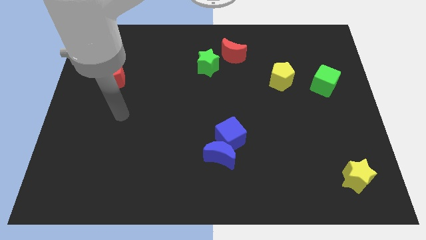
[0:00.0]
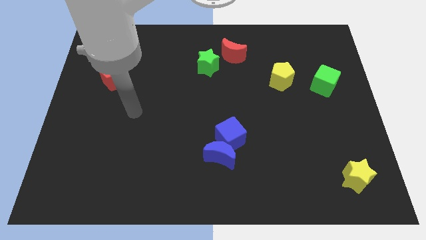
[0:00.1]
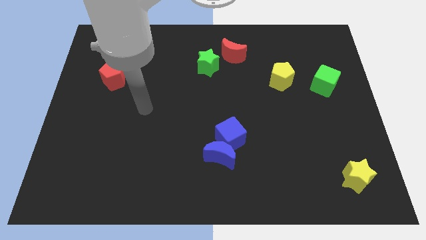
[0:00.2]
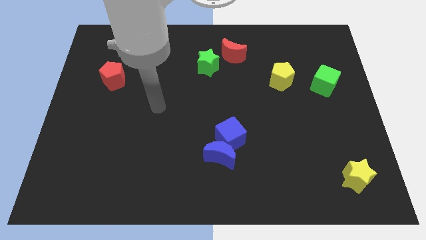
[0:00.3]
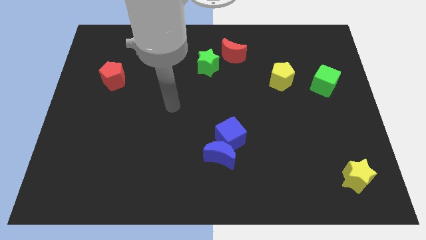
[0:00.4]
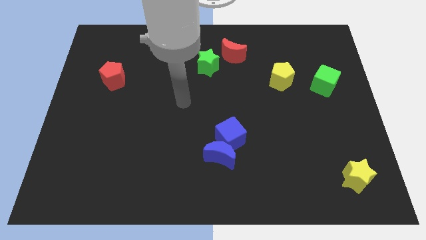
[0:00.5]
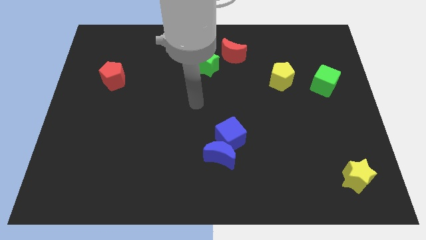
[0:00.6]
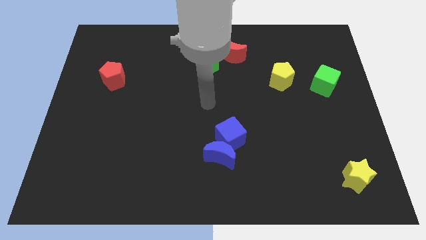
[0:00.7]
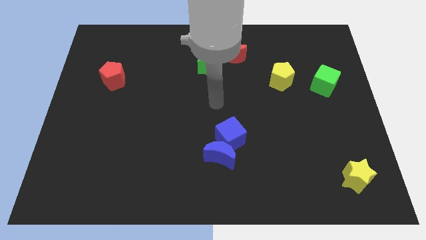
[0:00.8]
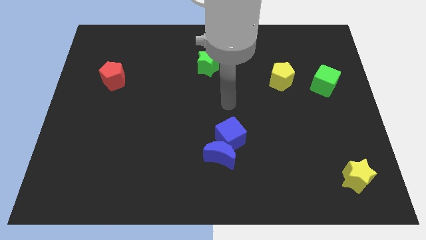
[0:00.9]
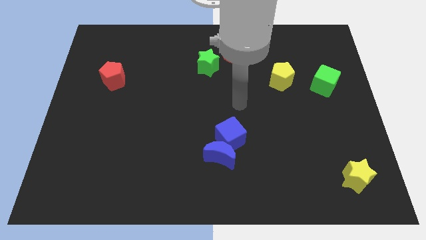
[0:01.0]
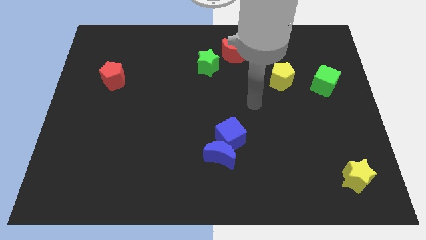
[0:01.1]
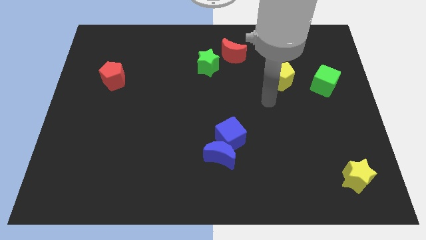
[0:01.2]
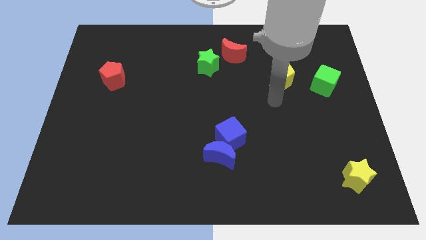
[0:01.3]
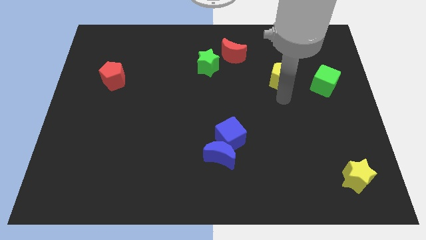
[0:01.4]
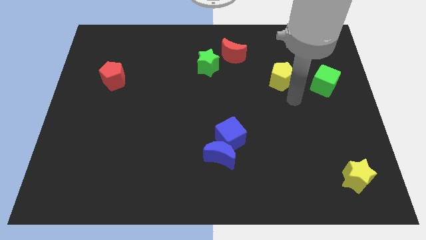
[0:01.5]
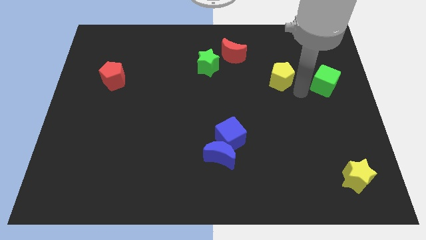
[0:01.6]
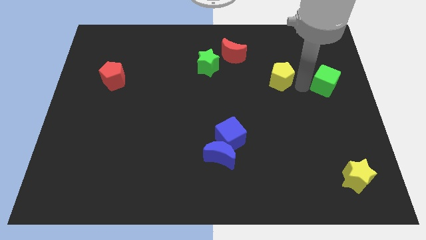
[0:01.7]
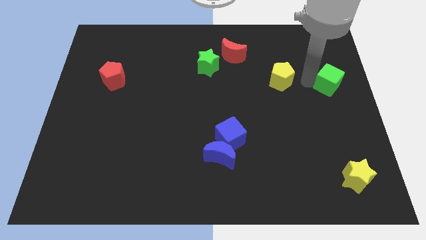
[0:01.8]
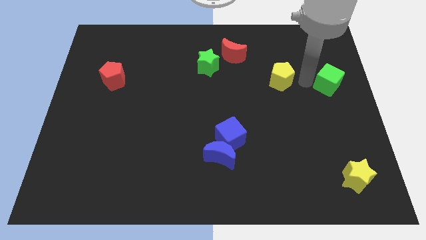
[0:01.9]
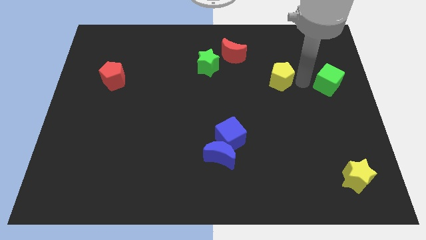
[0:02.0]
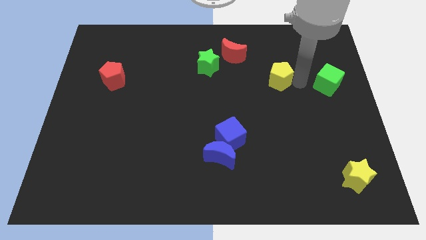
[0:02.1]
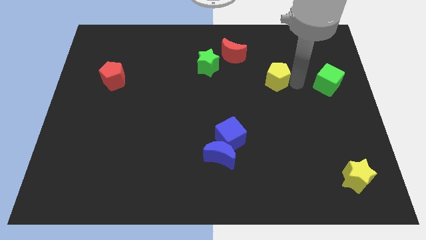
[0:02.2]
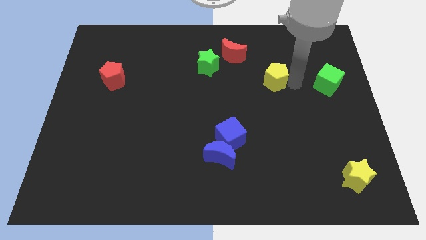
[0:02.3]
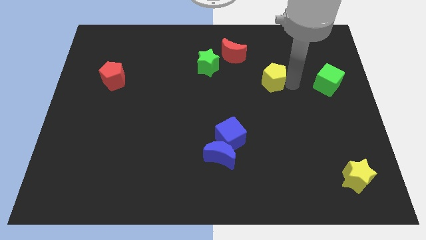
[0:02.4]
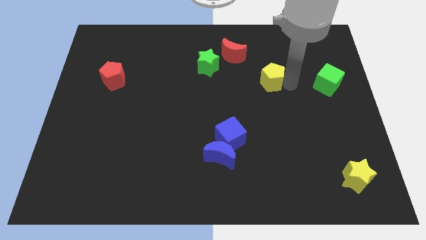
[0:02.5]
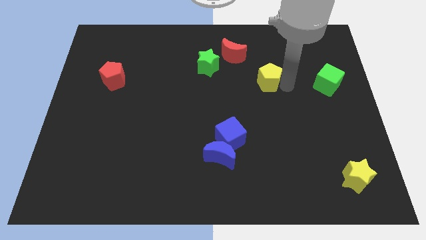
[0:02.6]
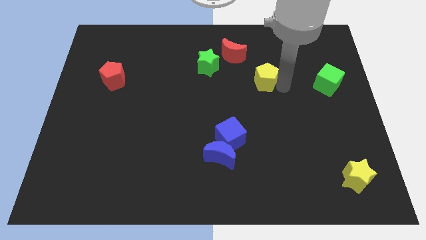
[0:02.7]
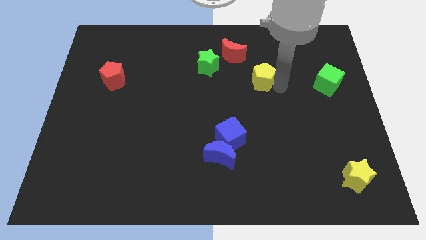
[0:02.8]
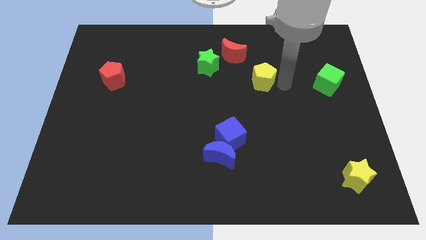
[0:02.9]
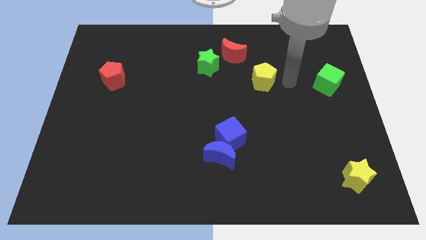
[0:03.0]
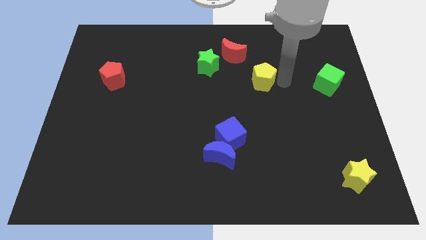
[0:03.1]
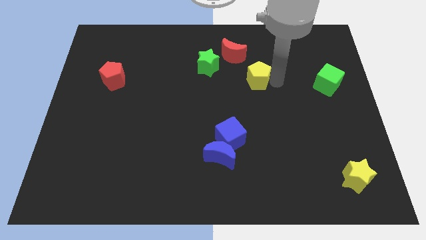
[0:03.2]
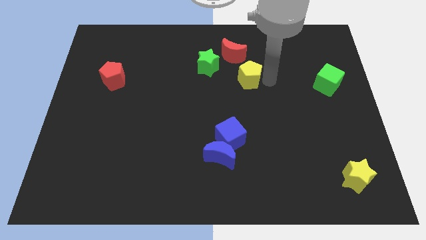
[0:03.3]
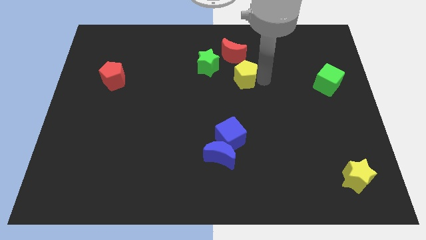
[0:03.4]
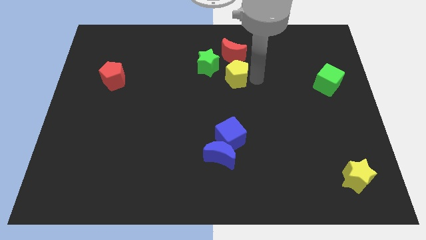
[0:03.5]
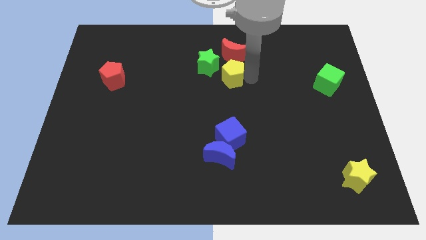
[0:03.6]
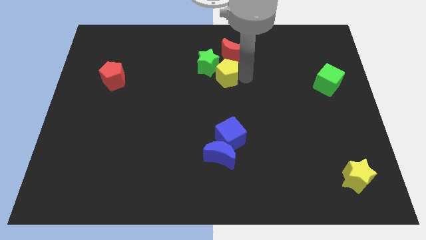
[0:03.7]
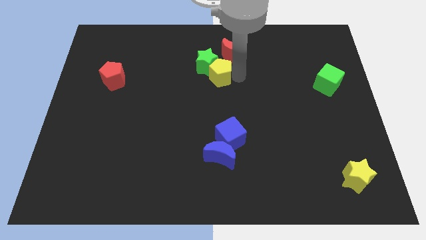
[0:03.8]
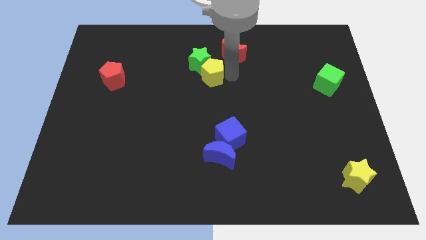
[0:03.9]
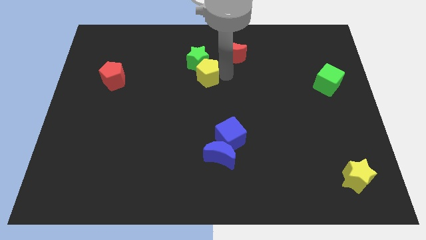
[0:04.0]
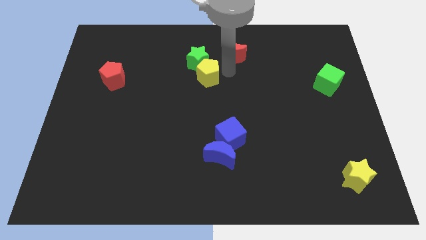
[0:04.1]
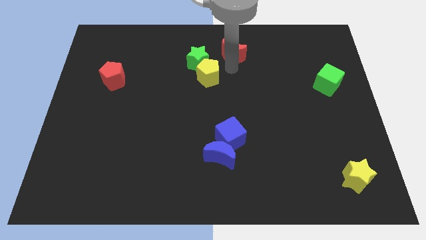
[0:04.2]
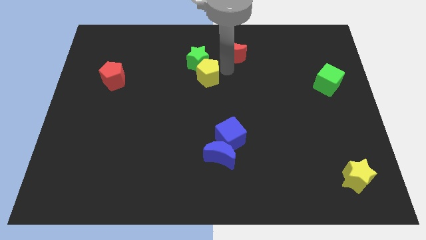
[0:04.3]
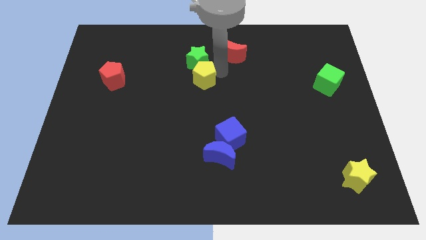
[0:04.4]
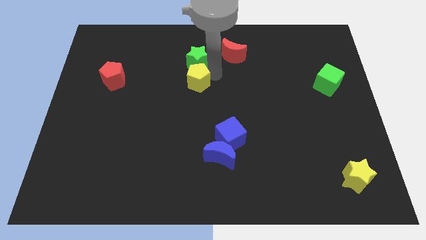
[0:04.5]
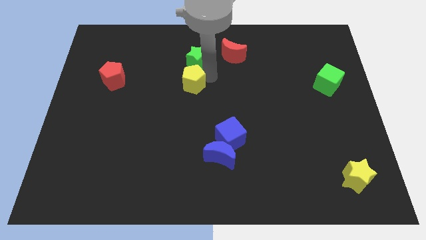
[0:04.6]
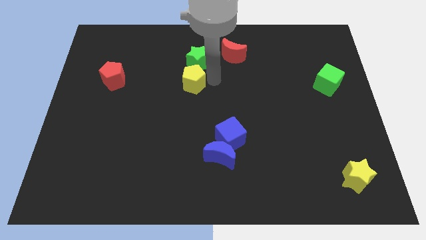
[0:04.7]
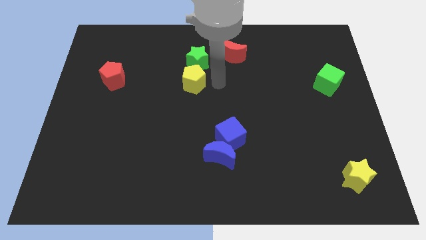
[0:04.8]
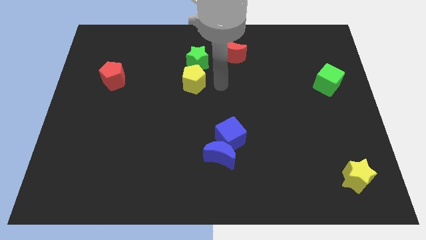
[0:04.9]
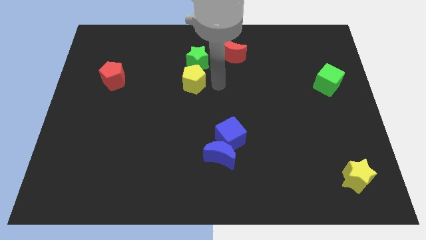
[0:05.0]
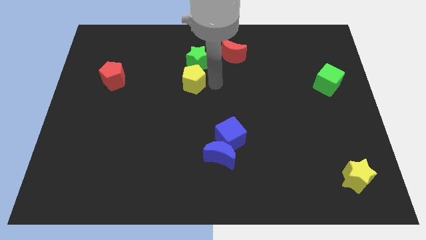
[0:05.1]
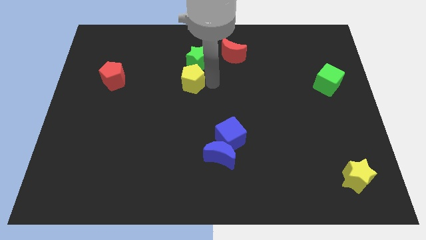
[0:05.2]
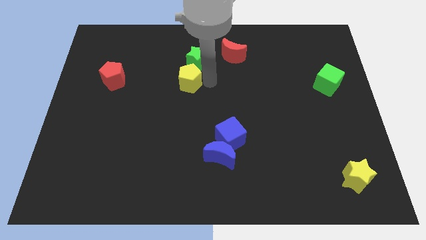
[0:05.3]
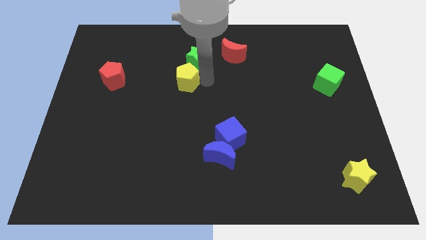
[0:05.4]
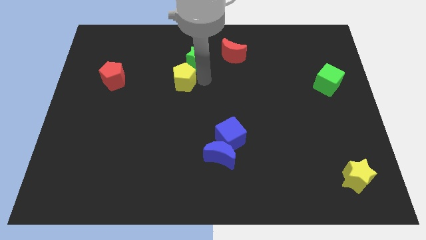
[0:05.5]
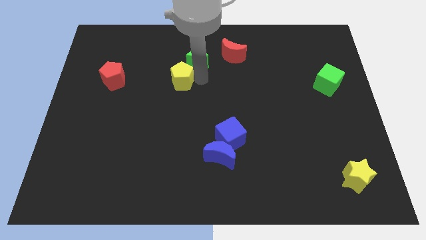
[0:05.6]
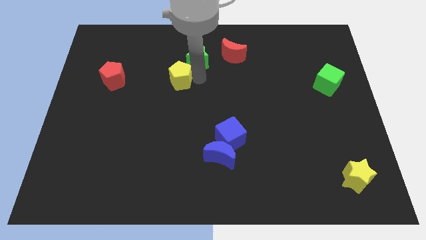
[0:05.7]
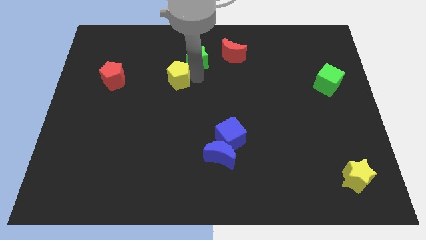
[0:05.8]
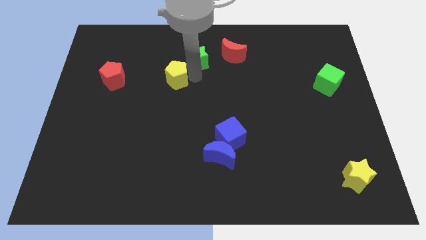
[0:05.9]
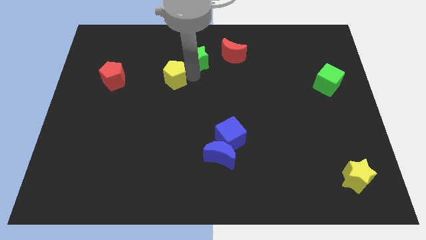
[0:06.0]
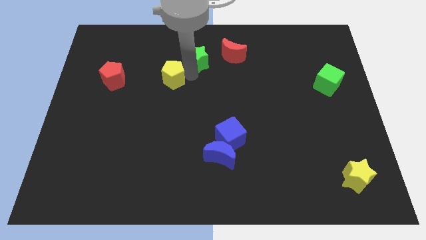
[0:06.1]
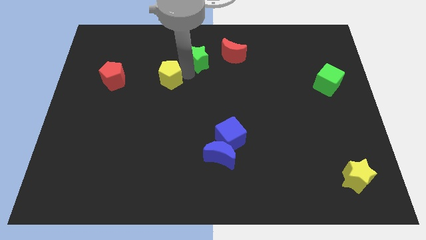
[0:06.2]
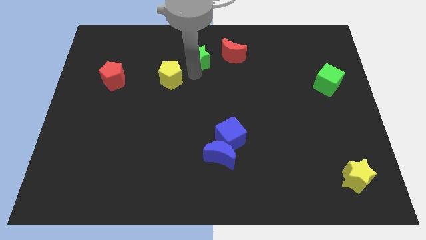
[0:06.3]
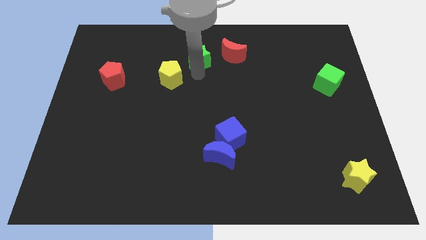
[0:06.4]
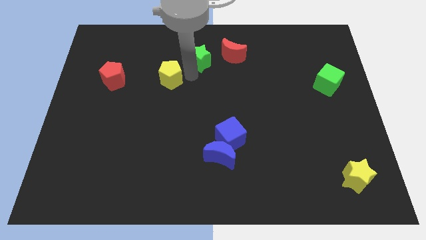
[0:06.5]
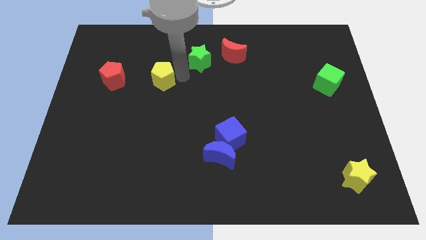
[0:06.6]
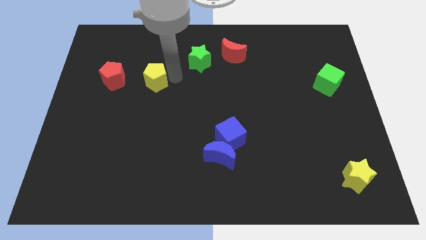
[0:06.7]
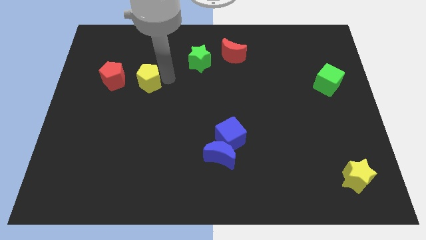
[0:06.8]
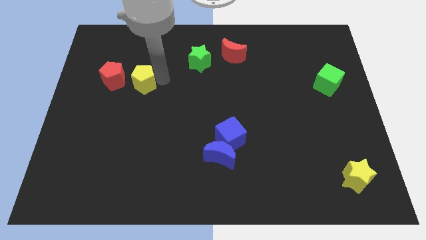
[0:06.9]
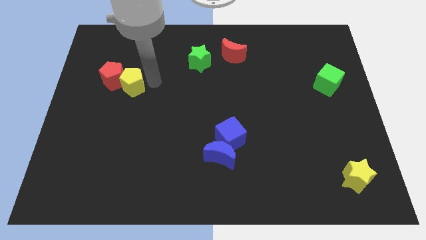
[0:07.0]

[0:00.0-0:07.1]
push the yellow pentagon towards the red pentagon
